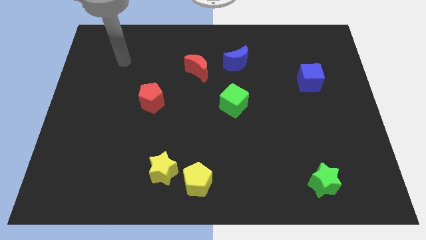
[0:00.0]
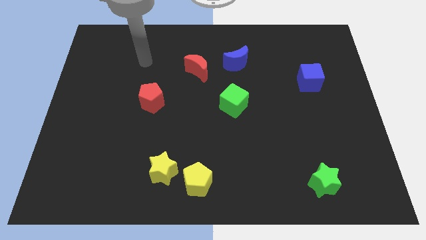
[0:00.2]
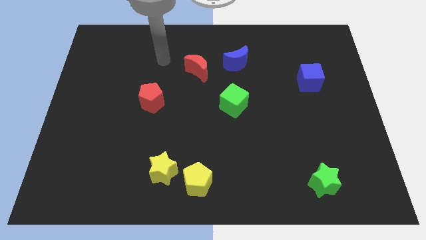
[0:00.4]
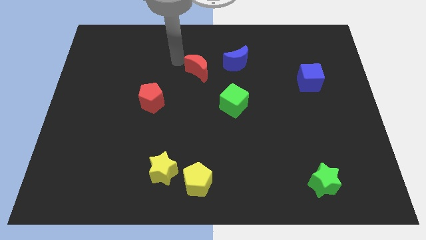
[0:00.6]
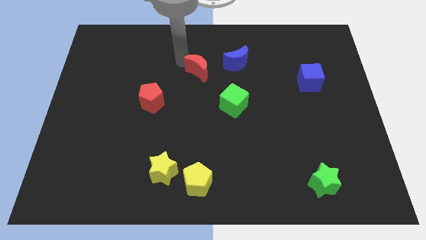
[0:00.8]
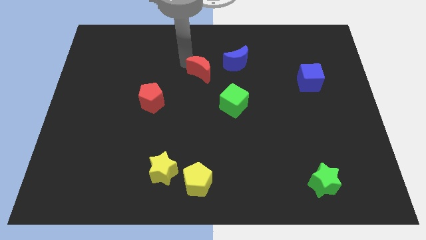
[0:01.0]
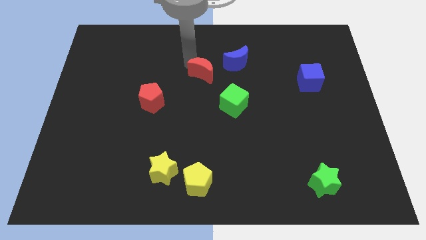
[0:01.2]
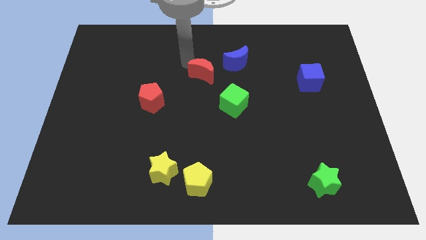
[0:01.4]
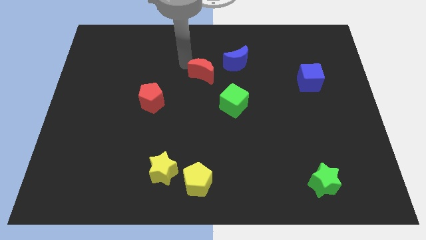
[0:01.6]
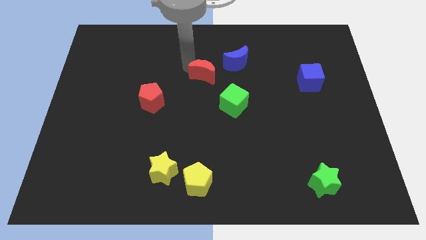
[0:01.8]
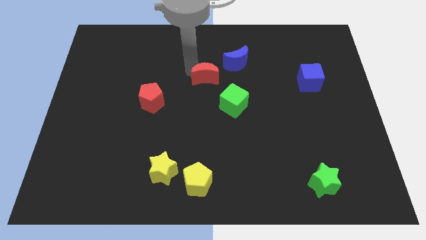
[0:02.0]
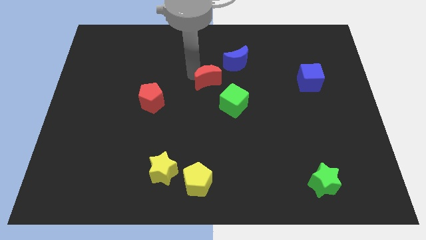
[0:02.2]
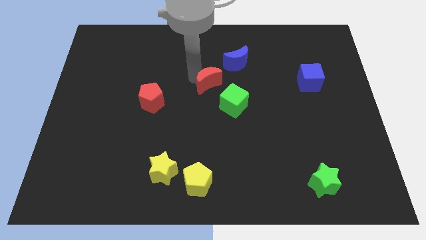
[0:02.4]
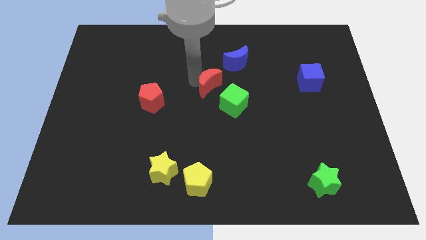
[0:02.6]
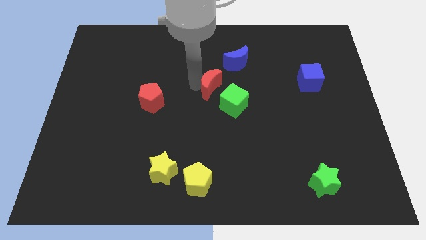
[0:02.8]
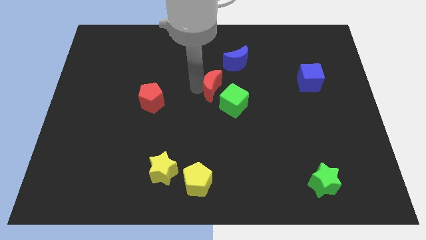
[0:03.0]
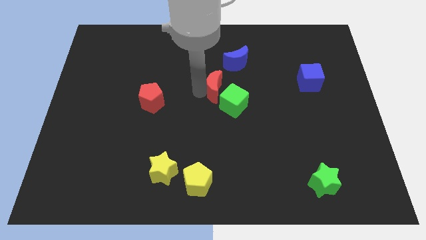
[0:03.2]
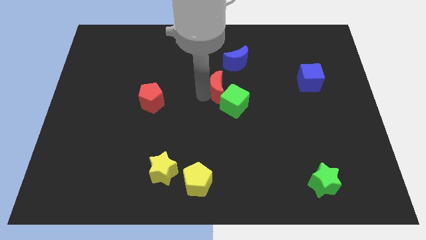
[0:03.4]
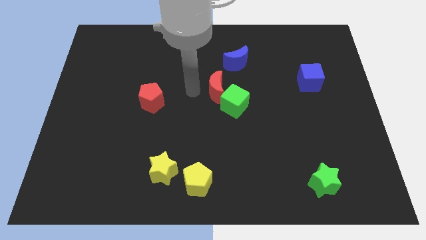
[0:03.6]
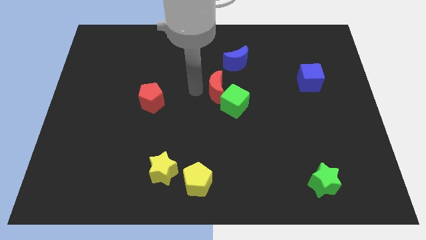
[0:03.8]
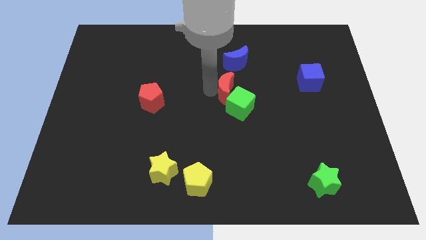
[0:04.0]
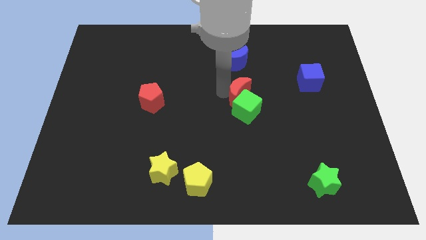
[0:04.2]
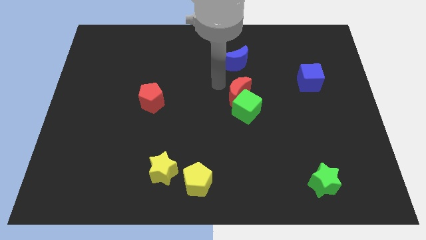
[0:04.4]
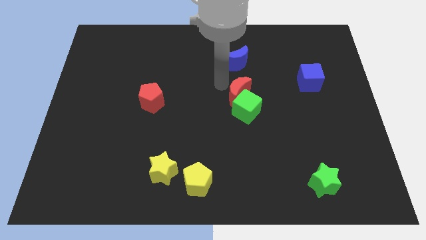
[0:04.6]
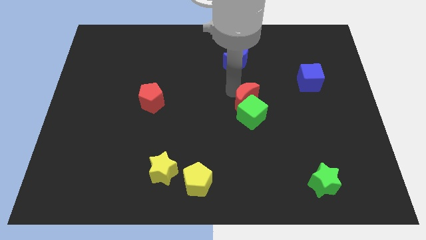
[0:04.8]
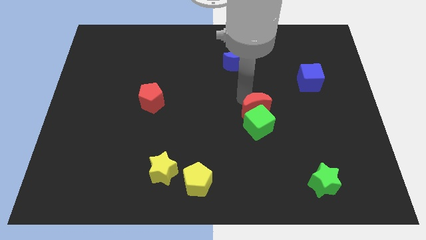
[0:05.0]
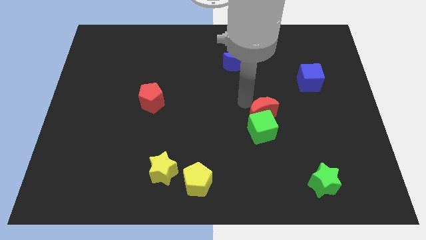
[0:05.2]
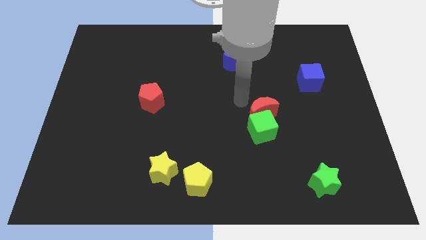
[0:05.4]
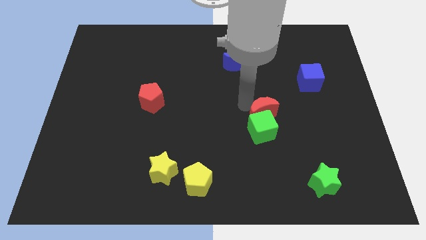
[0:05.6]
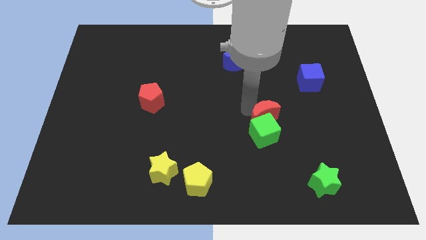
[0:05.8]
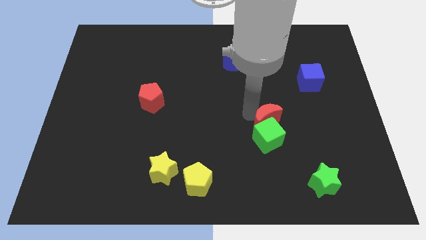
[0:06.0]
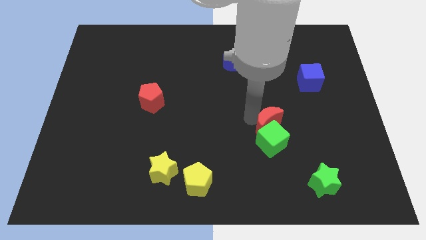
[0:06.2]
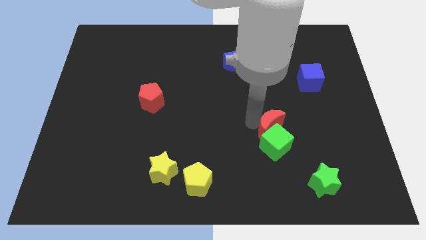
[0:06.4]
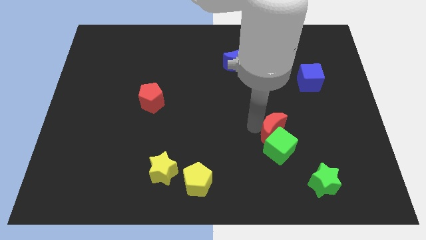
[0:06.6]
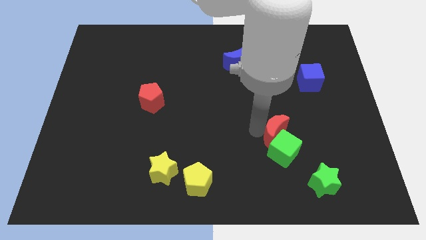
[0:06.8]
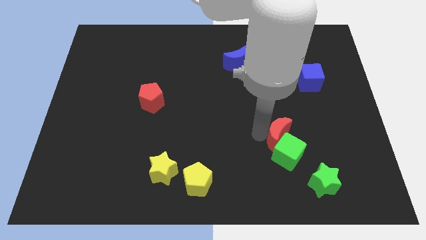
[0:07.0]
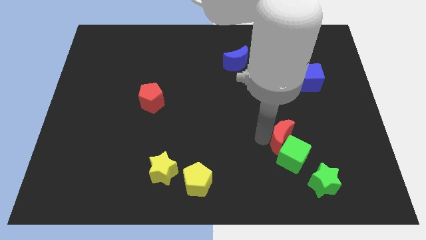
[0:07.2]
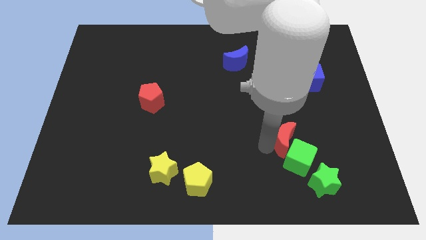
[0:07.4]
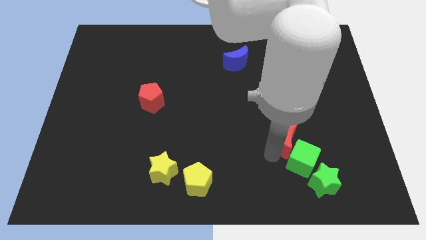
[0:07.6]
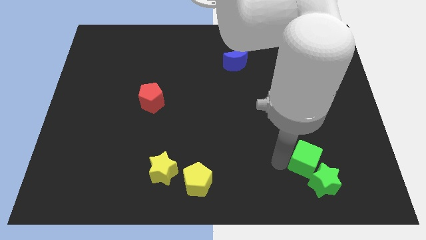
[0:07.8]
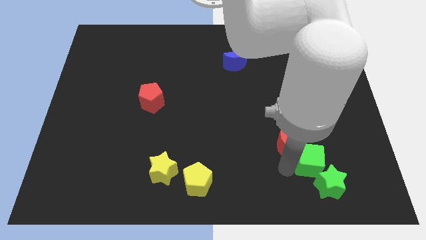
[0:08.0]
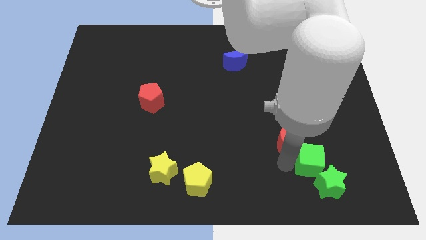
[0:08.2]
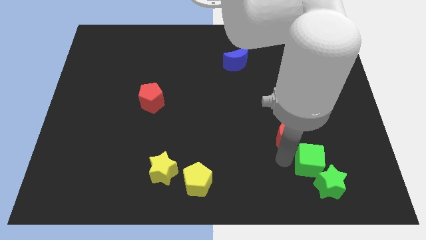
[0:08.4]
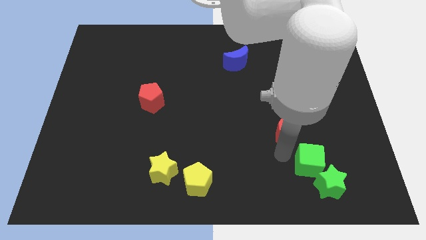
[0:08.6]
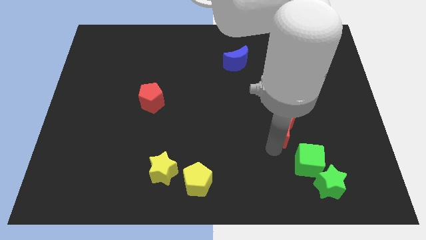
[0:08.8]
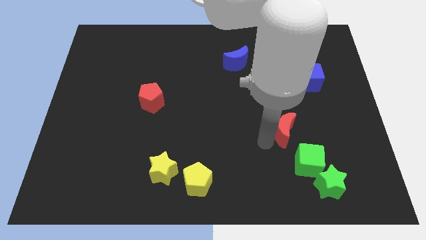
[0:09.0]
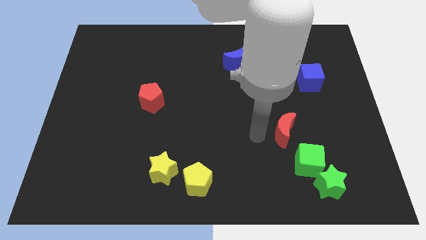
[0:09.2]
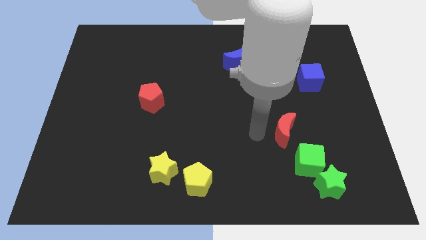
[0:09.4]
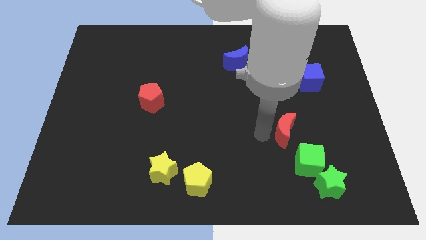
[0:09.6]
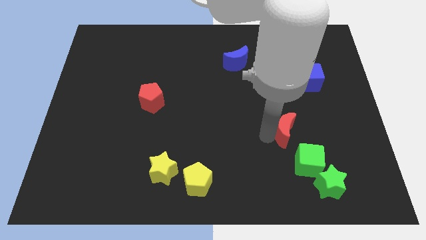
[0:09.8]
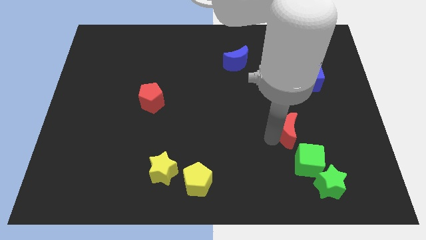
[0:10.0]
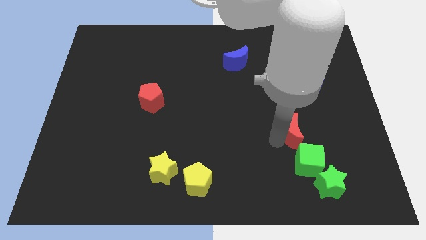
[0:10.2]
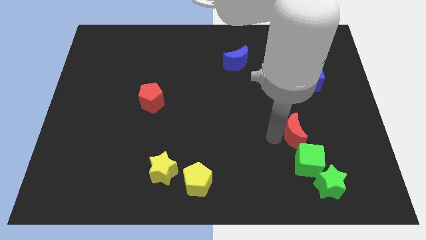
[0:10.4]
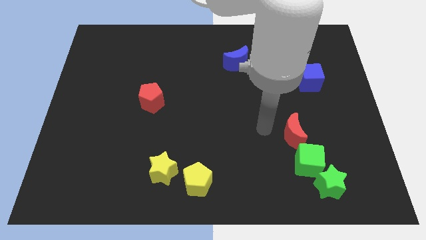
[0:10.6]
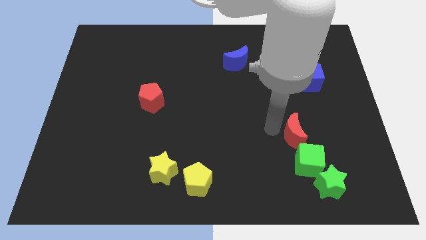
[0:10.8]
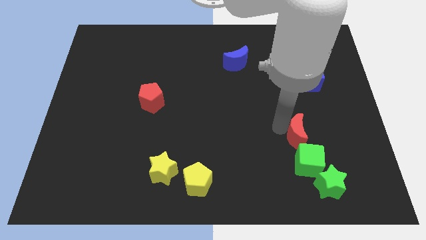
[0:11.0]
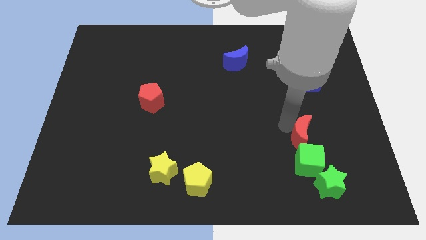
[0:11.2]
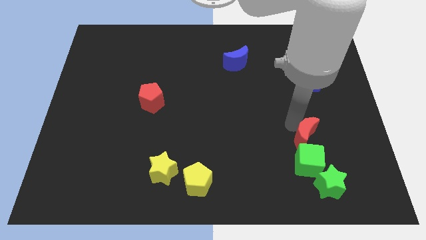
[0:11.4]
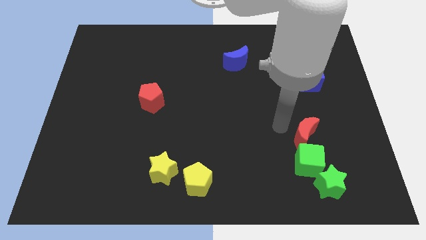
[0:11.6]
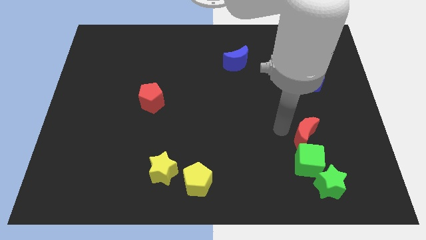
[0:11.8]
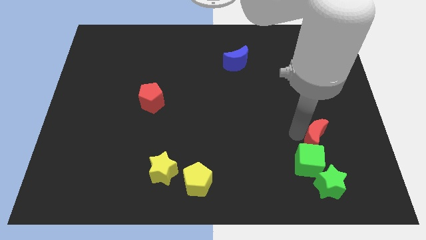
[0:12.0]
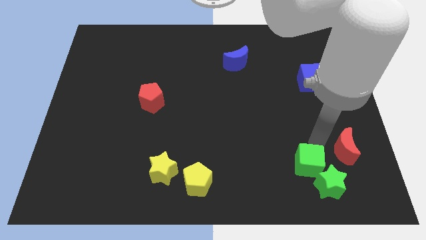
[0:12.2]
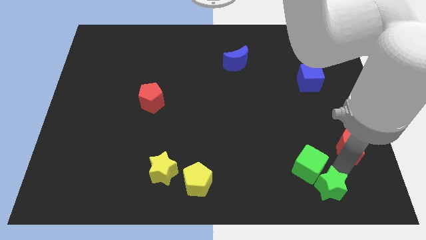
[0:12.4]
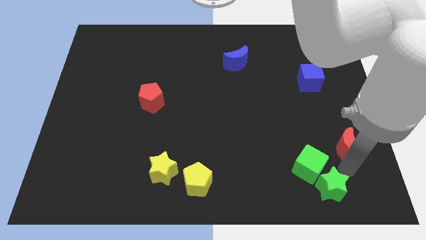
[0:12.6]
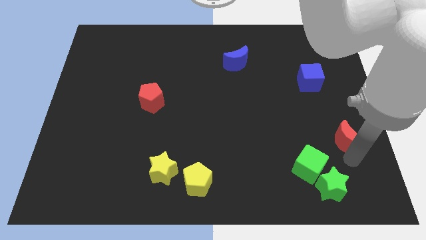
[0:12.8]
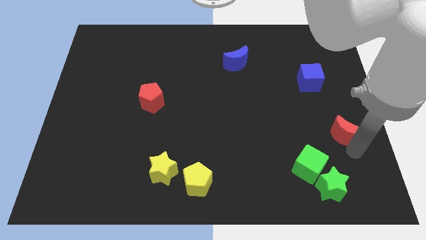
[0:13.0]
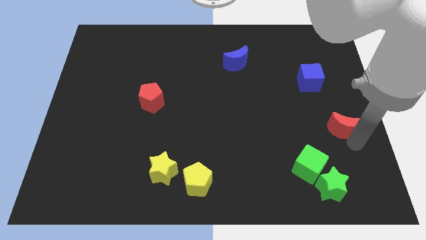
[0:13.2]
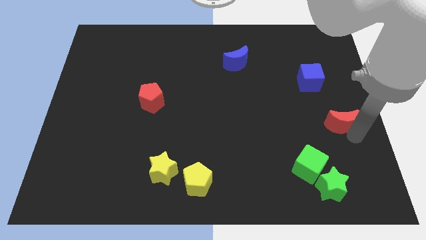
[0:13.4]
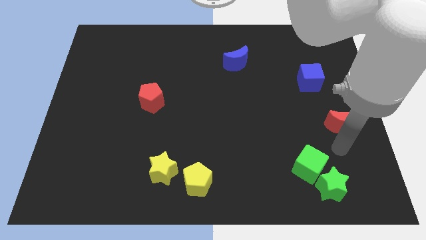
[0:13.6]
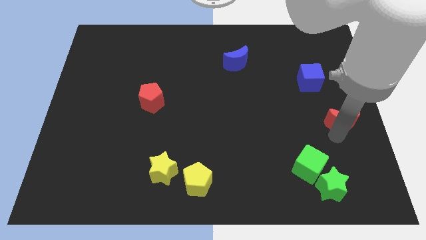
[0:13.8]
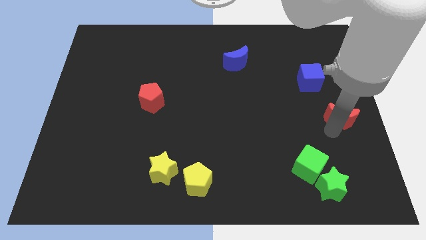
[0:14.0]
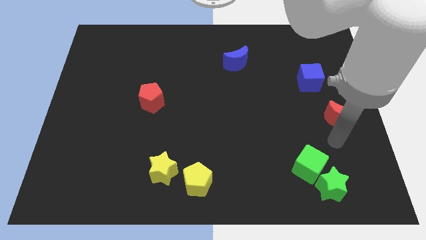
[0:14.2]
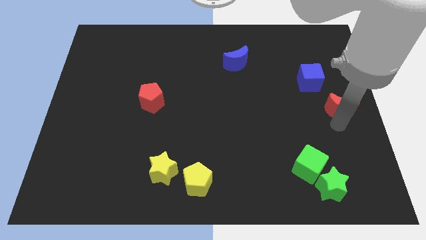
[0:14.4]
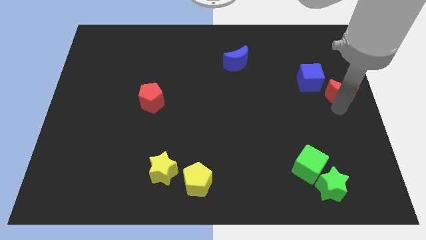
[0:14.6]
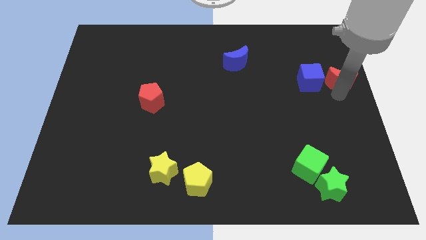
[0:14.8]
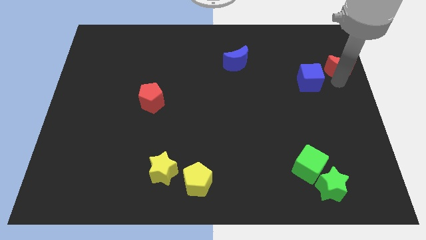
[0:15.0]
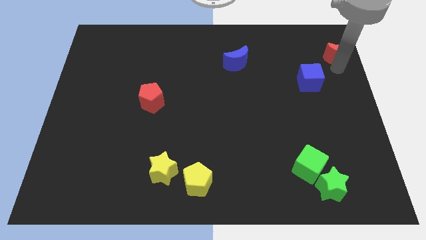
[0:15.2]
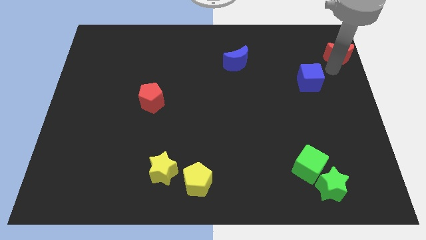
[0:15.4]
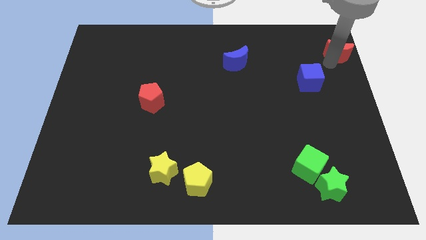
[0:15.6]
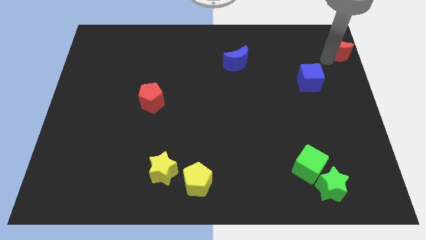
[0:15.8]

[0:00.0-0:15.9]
move the red moon to the top right
